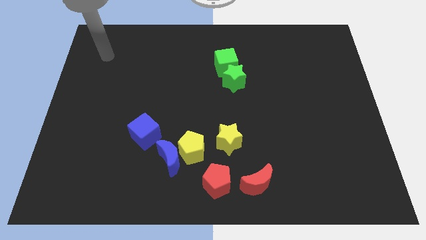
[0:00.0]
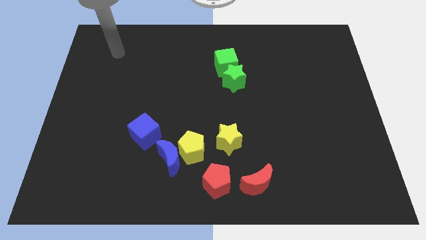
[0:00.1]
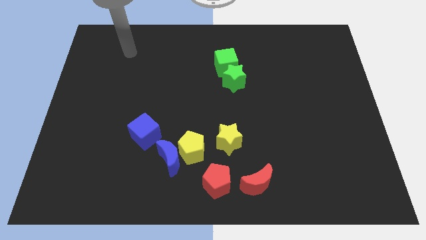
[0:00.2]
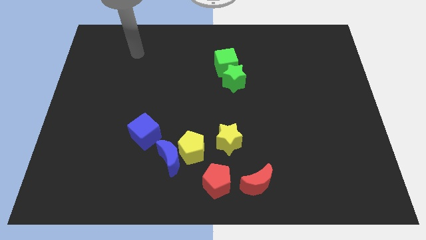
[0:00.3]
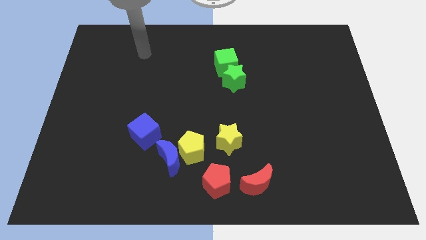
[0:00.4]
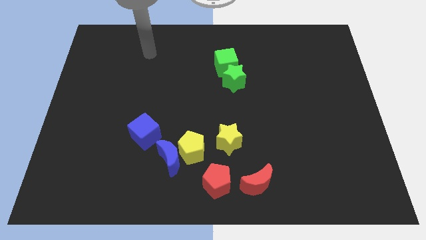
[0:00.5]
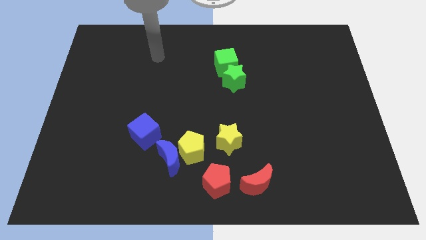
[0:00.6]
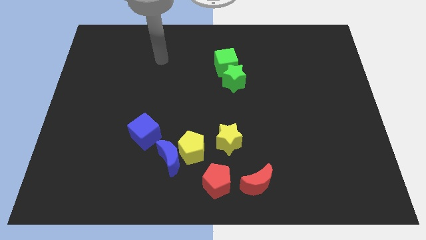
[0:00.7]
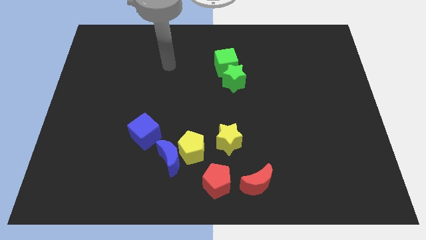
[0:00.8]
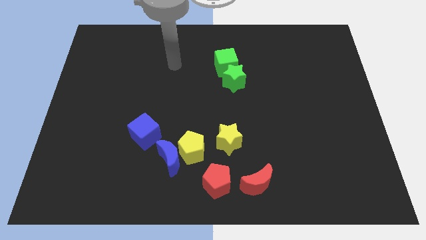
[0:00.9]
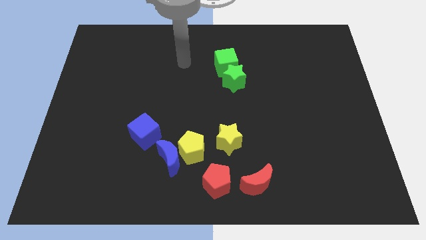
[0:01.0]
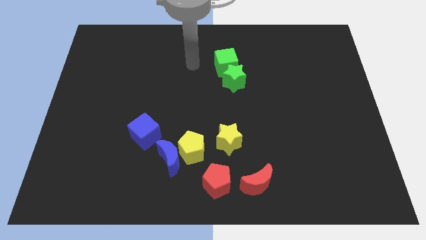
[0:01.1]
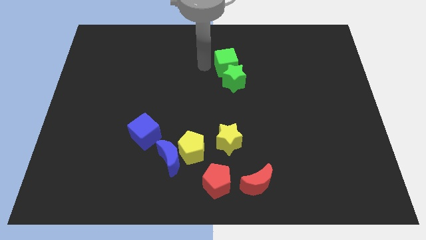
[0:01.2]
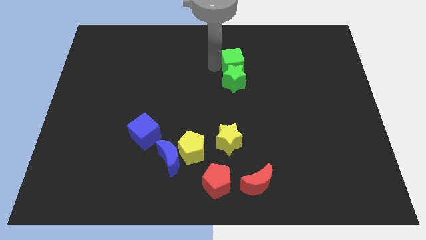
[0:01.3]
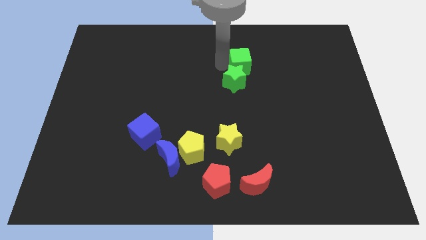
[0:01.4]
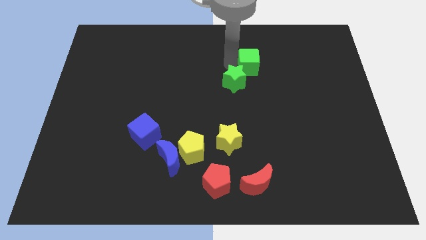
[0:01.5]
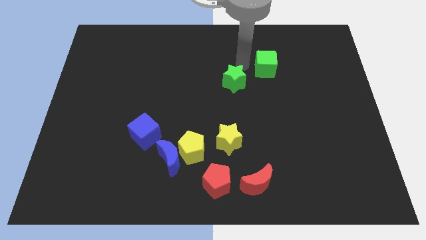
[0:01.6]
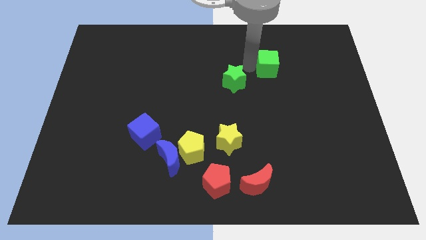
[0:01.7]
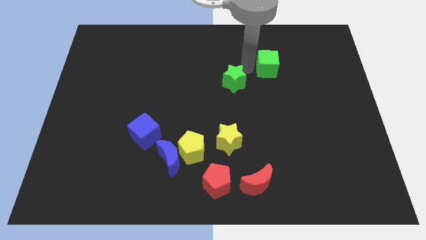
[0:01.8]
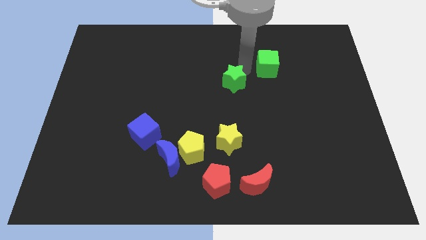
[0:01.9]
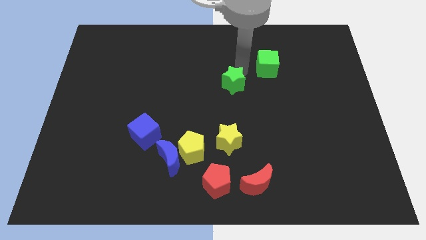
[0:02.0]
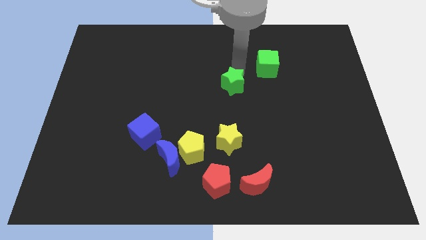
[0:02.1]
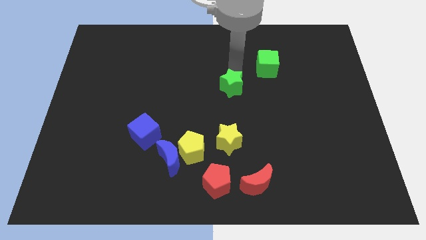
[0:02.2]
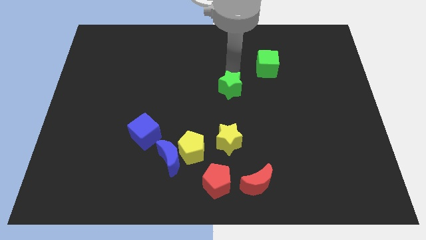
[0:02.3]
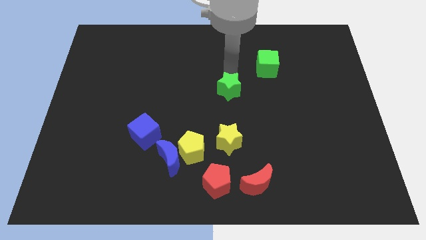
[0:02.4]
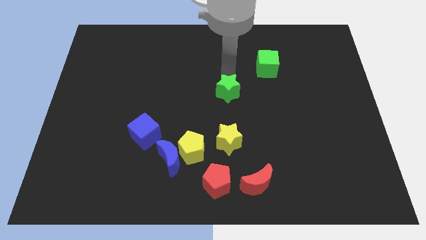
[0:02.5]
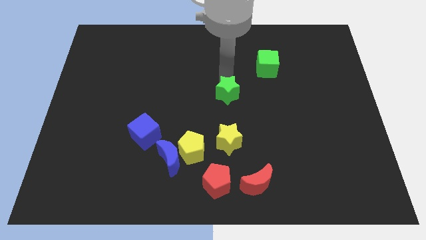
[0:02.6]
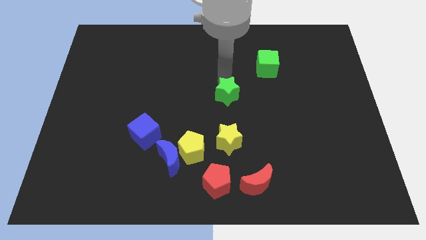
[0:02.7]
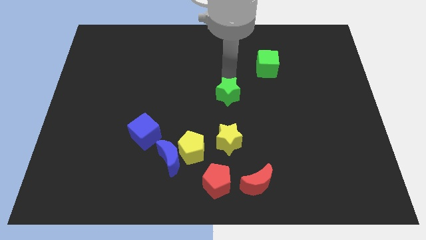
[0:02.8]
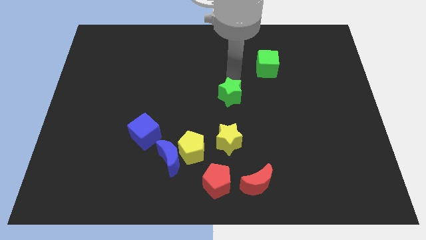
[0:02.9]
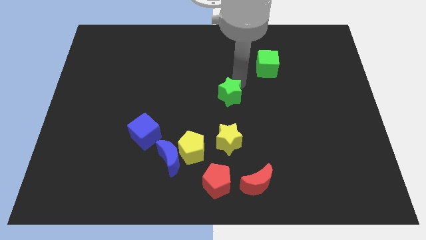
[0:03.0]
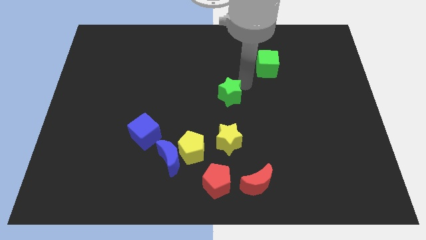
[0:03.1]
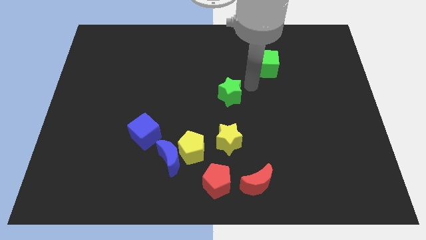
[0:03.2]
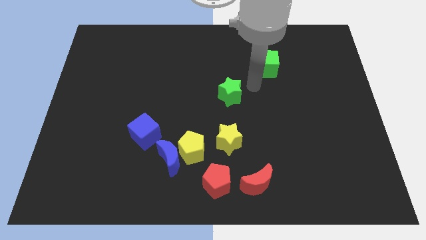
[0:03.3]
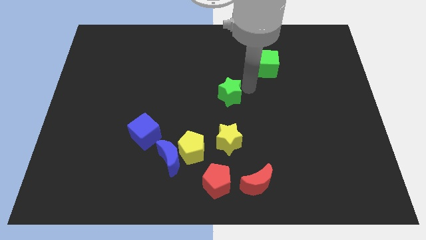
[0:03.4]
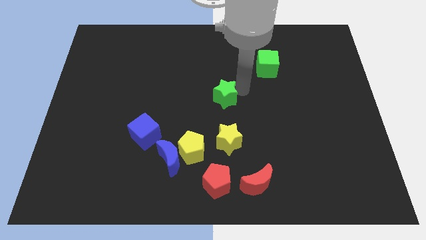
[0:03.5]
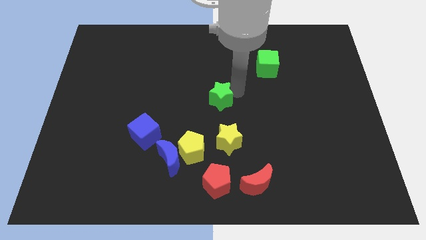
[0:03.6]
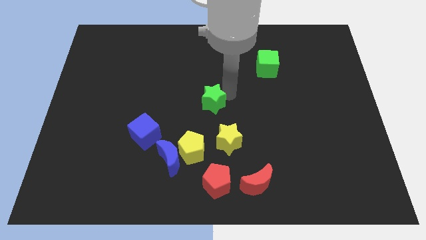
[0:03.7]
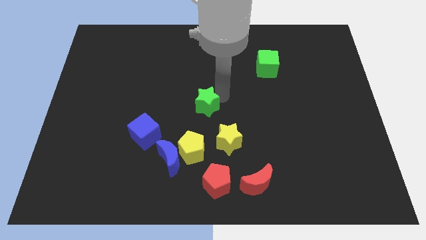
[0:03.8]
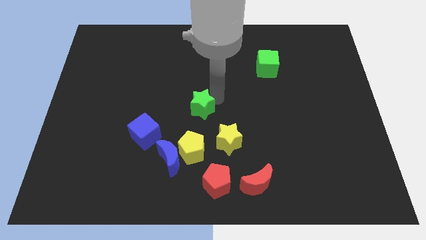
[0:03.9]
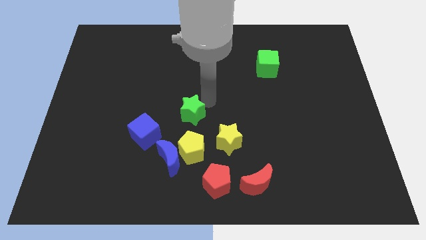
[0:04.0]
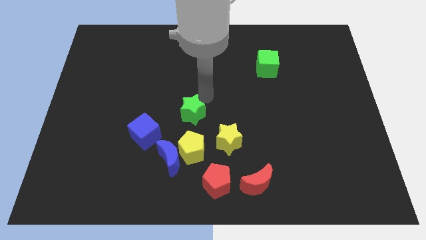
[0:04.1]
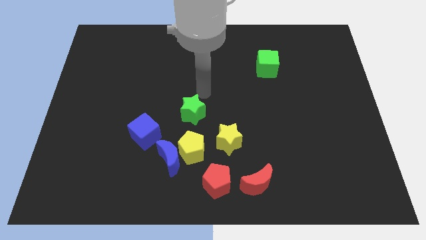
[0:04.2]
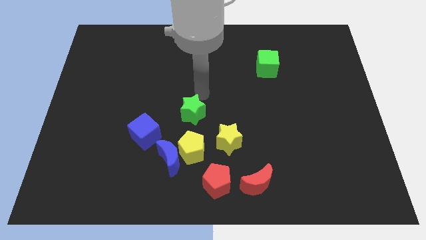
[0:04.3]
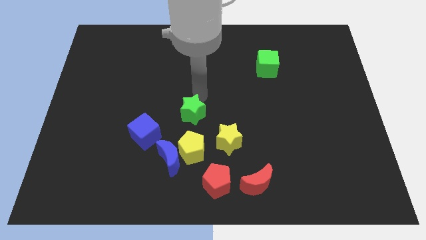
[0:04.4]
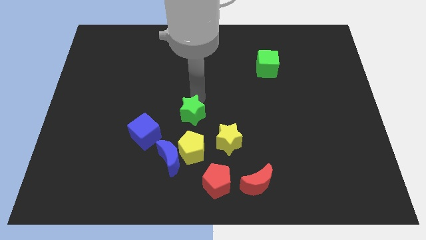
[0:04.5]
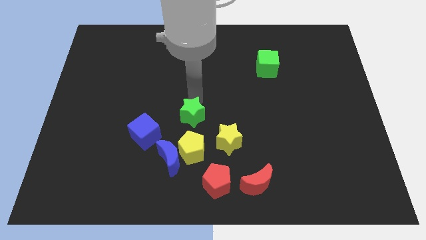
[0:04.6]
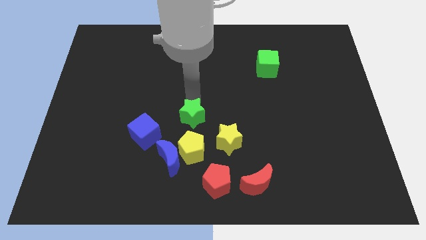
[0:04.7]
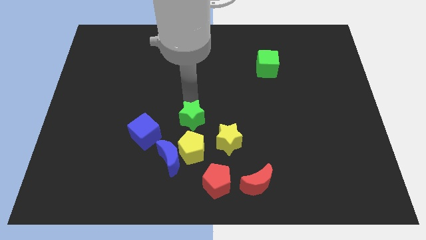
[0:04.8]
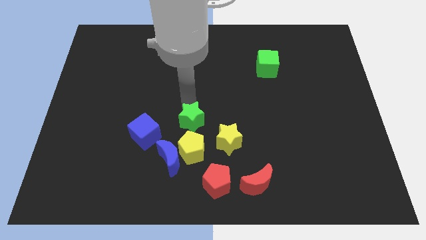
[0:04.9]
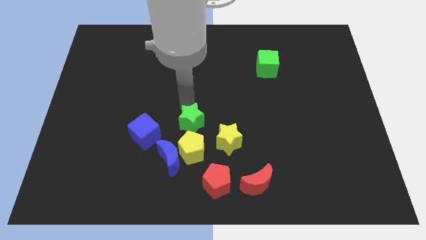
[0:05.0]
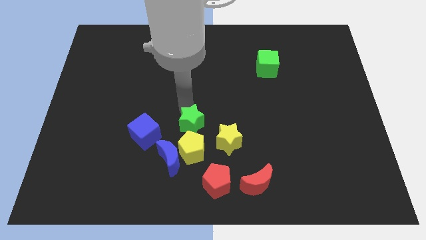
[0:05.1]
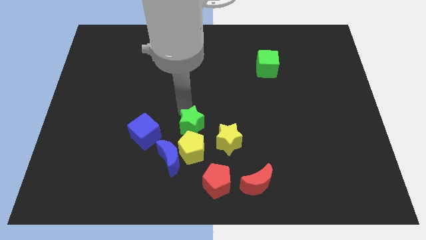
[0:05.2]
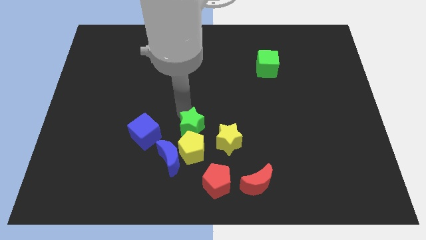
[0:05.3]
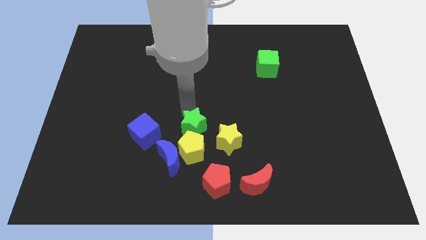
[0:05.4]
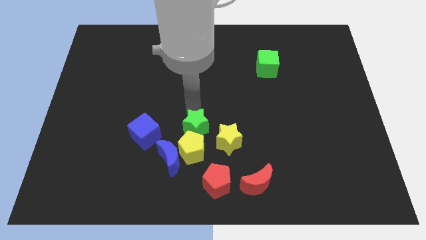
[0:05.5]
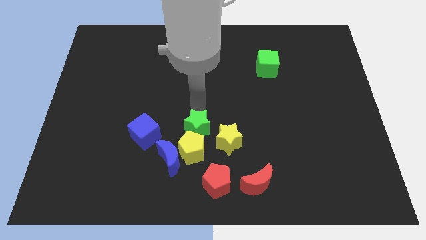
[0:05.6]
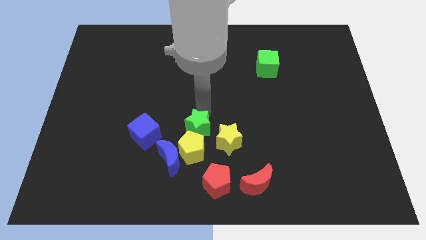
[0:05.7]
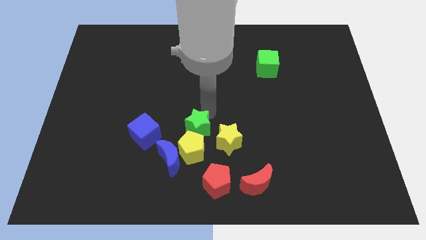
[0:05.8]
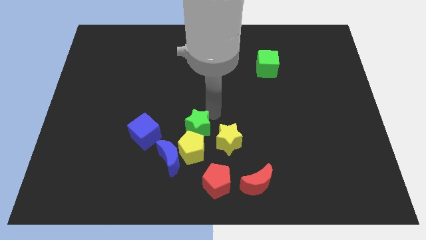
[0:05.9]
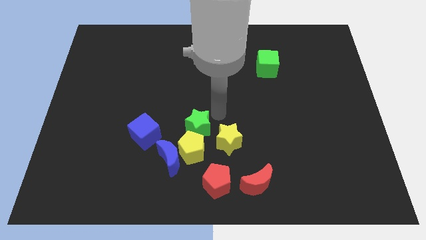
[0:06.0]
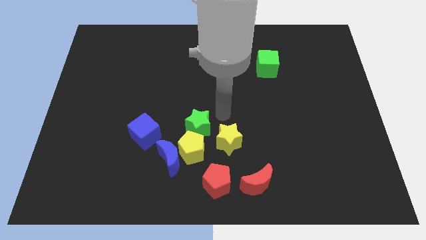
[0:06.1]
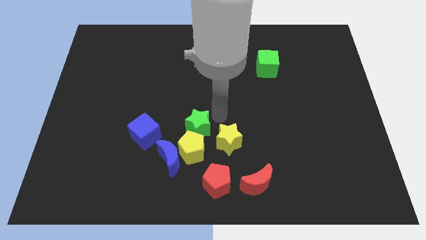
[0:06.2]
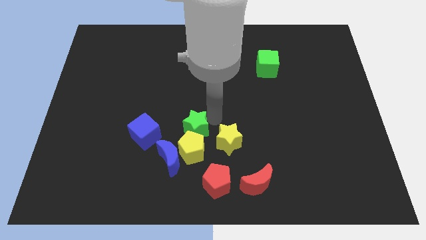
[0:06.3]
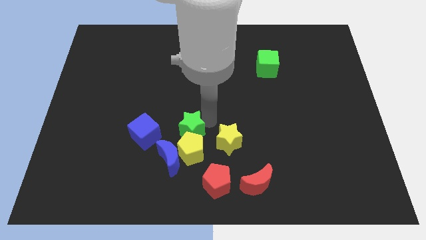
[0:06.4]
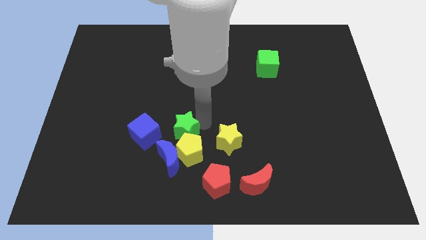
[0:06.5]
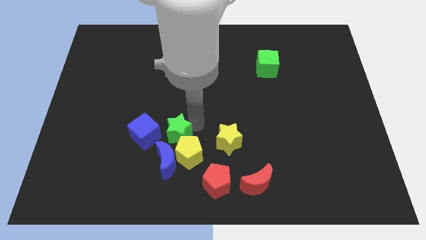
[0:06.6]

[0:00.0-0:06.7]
move the green star downwards and to the left diagonally

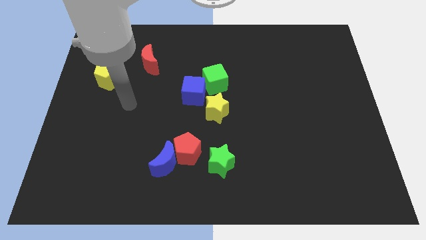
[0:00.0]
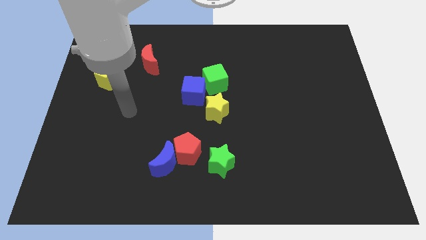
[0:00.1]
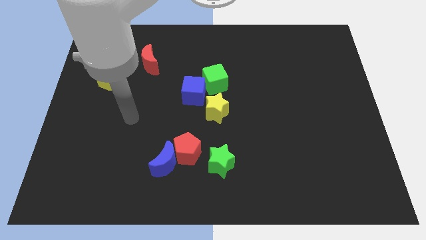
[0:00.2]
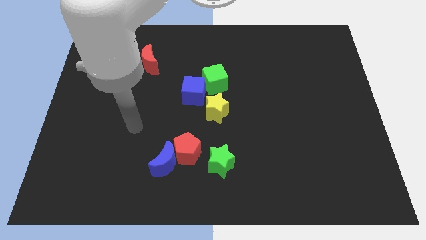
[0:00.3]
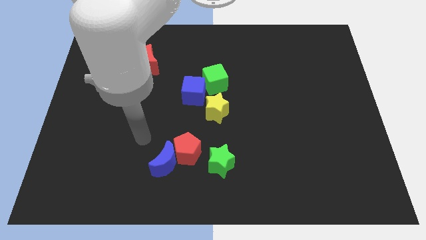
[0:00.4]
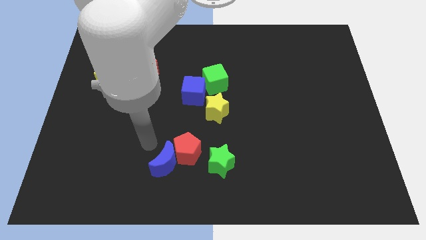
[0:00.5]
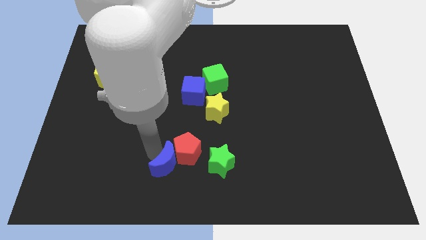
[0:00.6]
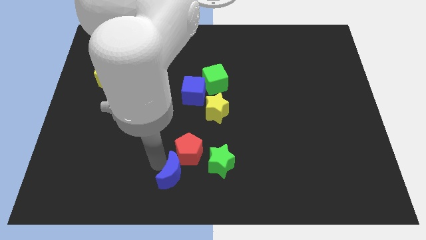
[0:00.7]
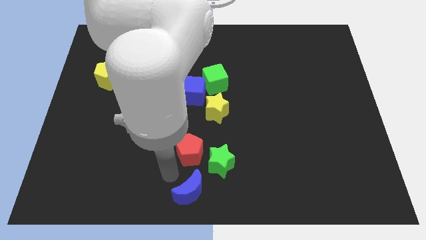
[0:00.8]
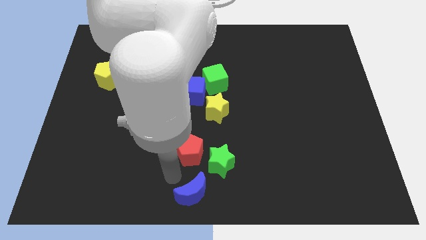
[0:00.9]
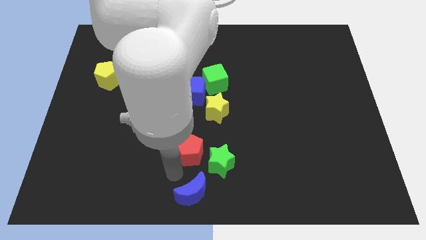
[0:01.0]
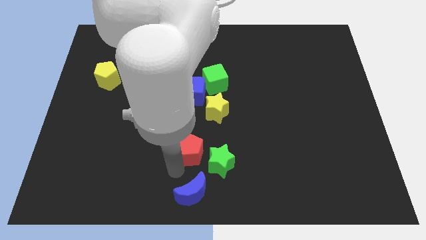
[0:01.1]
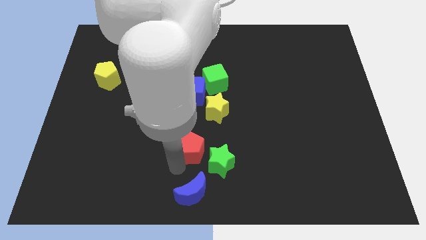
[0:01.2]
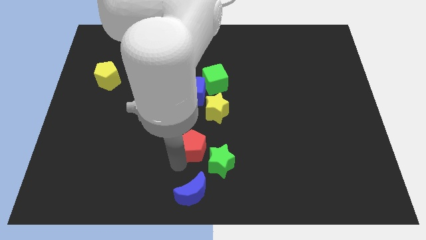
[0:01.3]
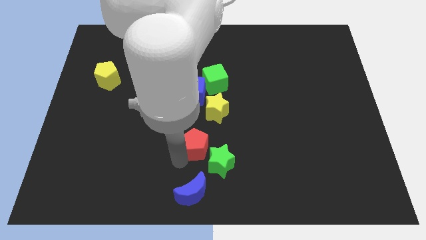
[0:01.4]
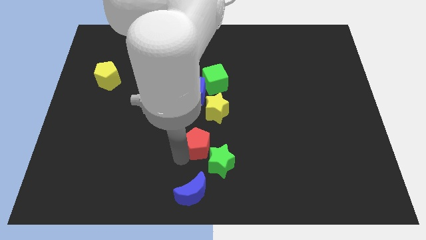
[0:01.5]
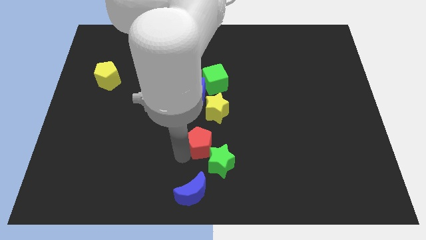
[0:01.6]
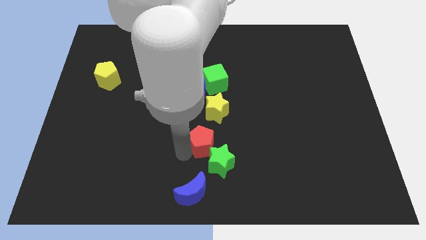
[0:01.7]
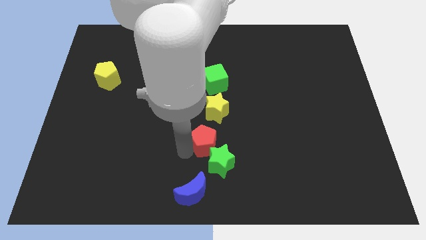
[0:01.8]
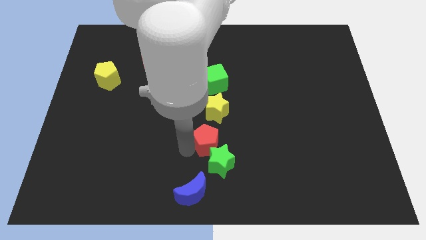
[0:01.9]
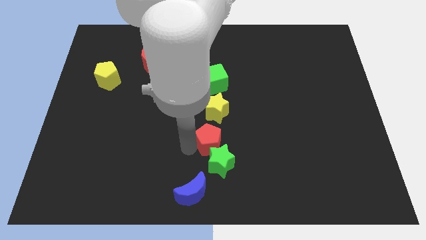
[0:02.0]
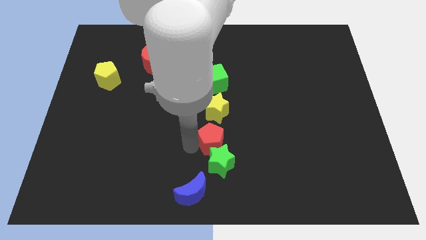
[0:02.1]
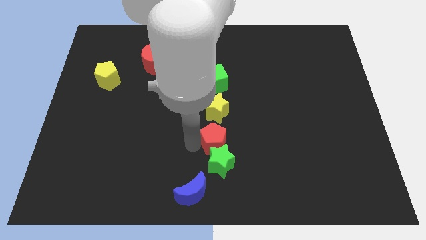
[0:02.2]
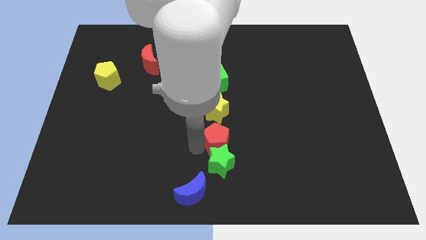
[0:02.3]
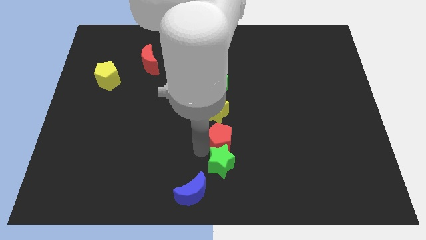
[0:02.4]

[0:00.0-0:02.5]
slightly slide the red pentagon to the right
